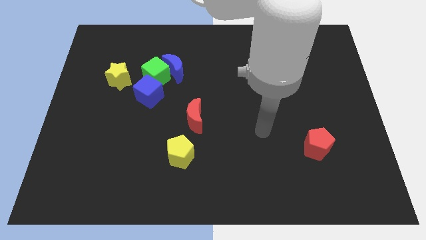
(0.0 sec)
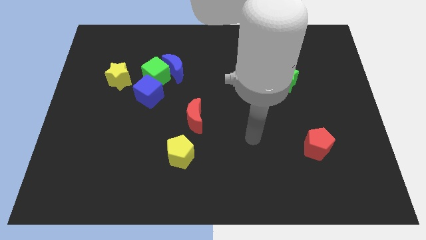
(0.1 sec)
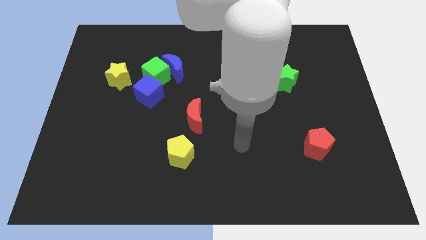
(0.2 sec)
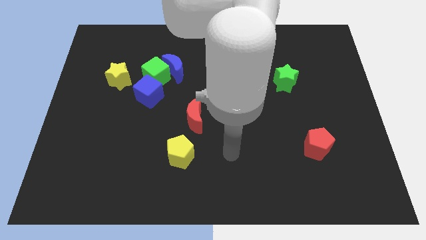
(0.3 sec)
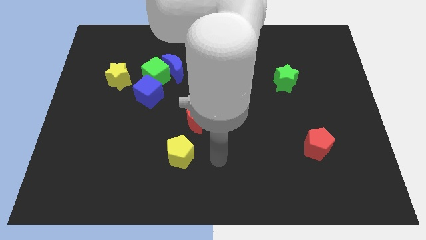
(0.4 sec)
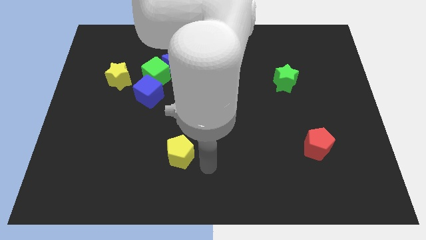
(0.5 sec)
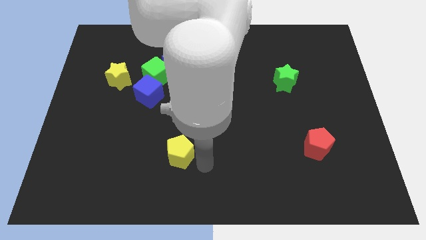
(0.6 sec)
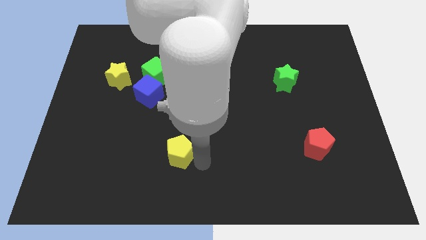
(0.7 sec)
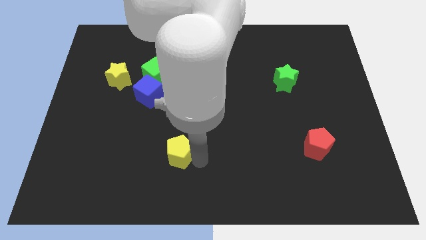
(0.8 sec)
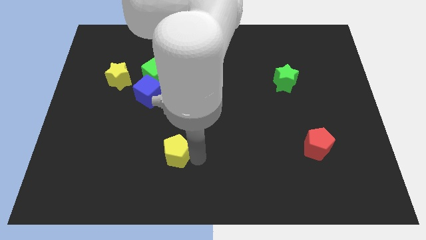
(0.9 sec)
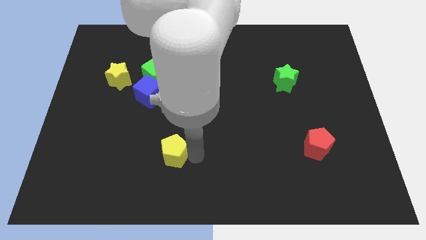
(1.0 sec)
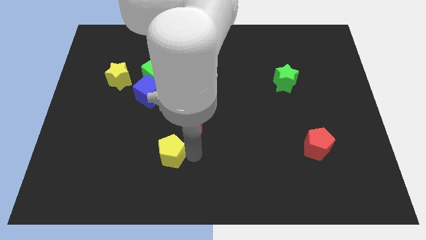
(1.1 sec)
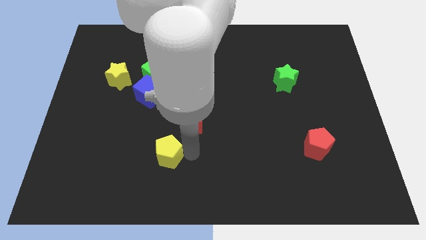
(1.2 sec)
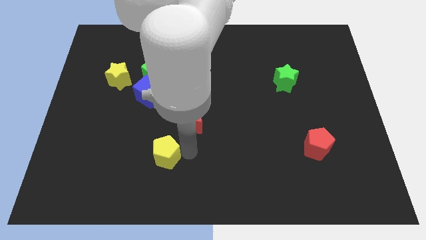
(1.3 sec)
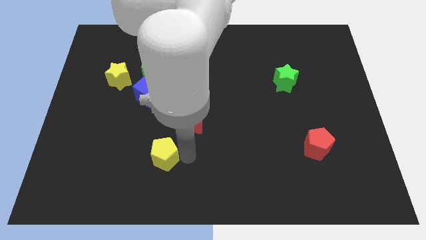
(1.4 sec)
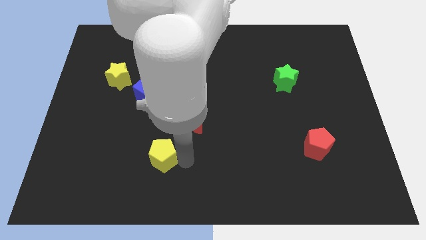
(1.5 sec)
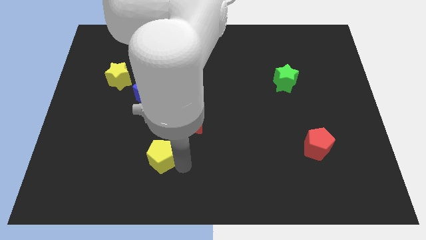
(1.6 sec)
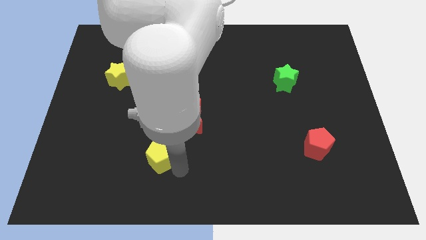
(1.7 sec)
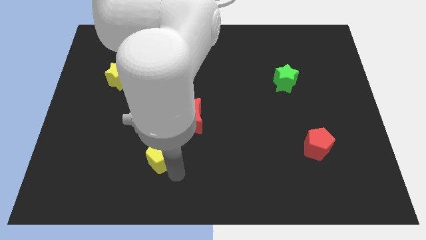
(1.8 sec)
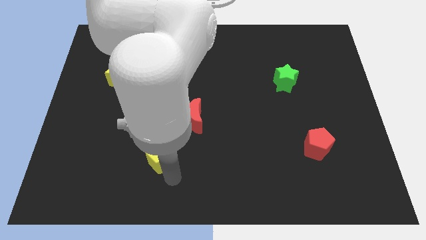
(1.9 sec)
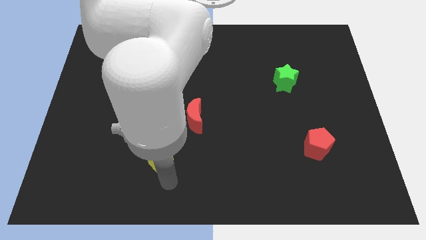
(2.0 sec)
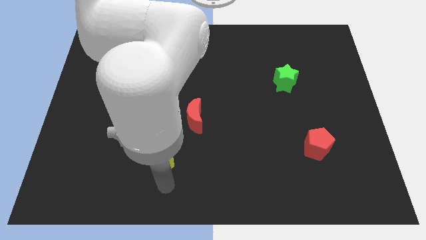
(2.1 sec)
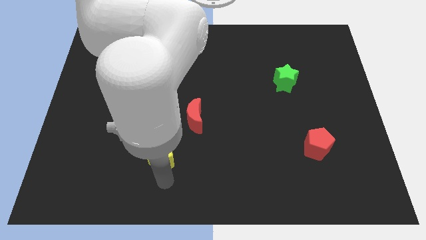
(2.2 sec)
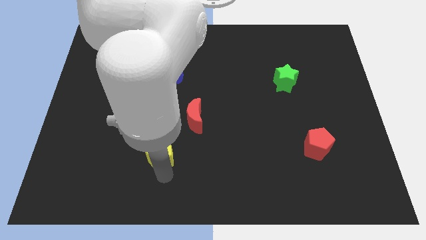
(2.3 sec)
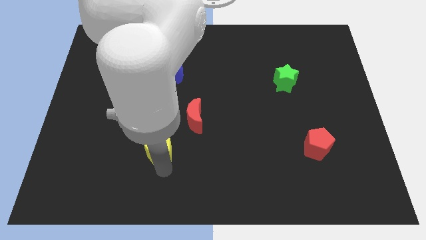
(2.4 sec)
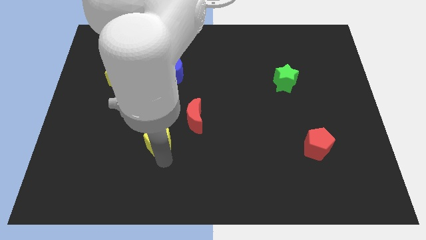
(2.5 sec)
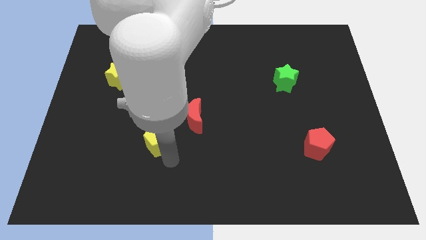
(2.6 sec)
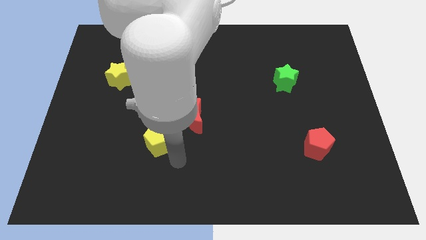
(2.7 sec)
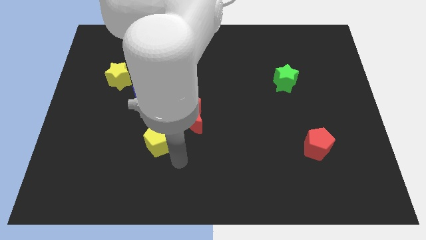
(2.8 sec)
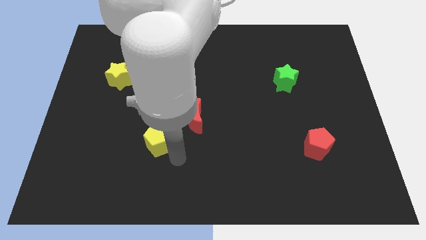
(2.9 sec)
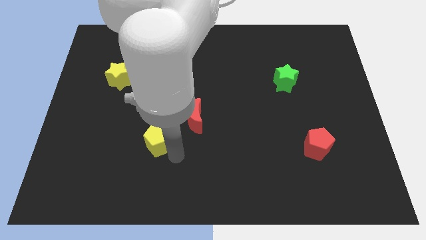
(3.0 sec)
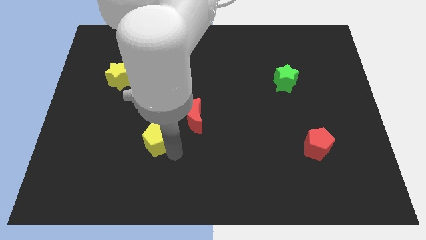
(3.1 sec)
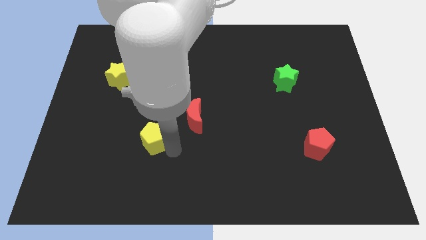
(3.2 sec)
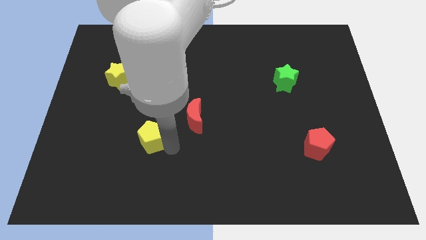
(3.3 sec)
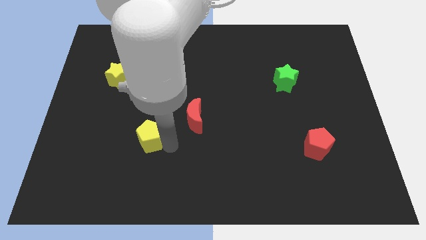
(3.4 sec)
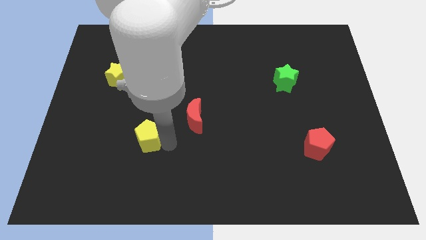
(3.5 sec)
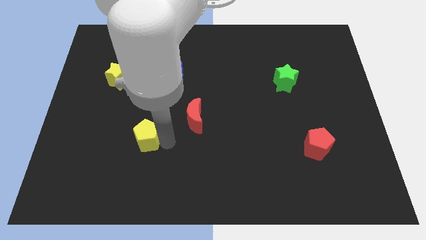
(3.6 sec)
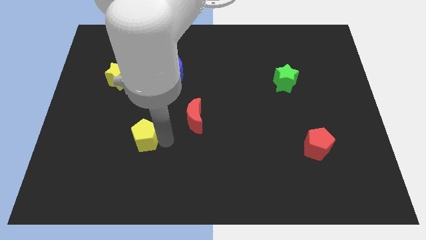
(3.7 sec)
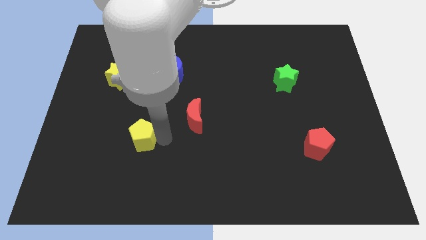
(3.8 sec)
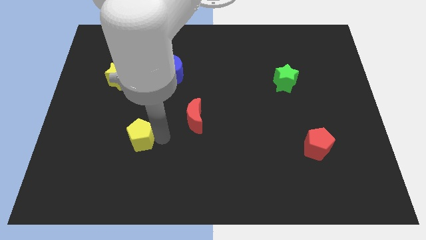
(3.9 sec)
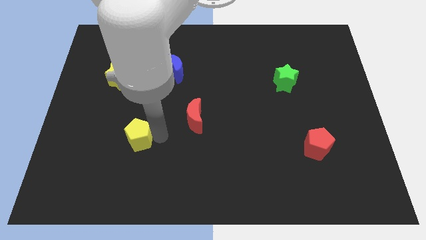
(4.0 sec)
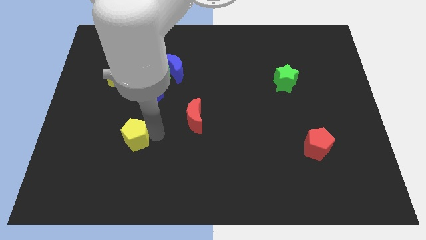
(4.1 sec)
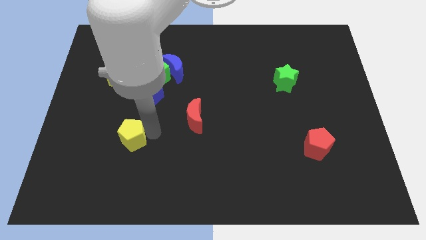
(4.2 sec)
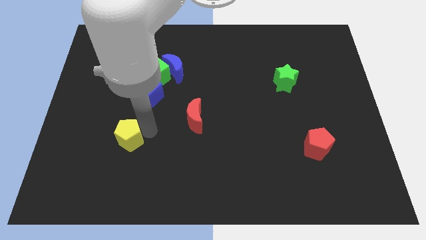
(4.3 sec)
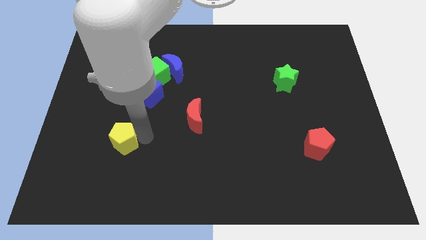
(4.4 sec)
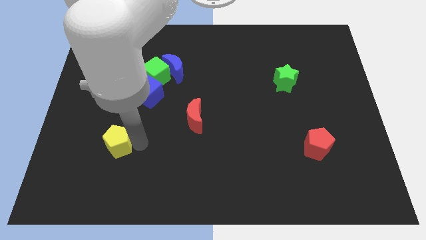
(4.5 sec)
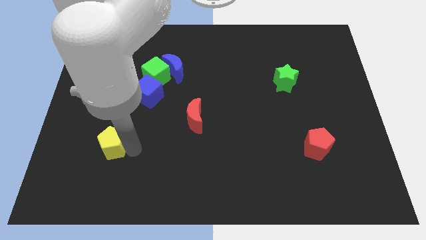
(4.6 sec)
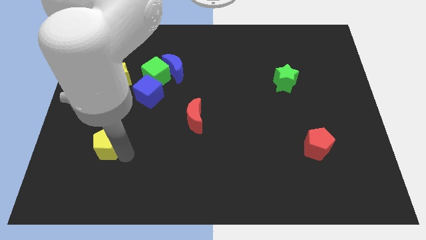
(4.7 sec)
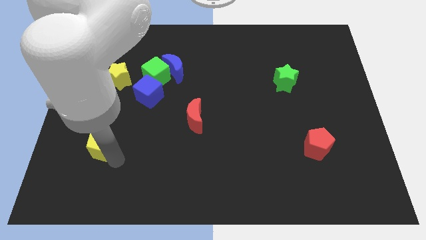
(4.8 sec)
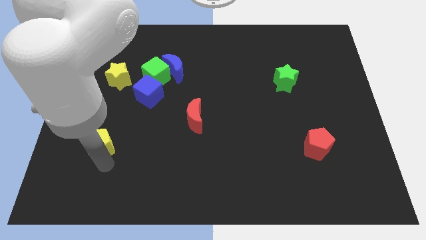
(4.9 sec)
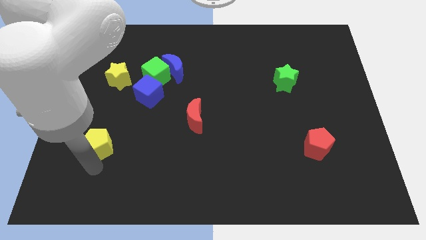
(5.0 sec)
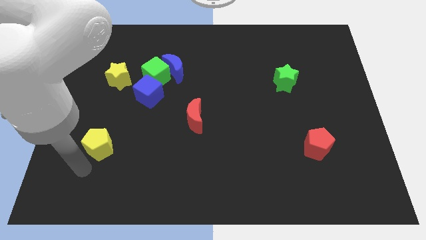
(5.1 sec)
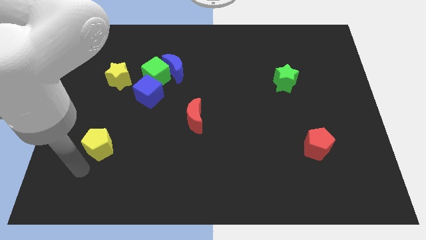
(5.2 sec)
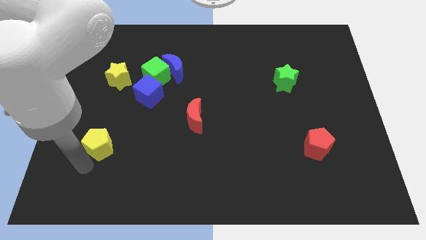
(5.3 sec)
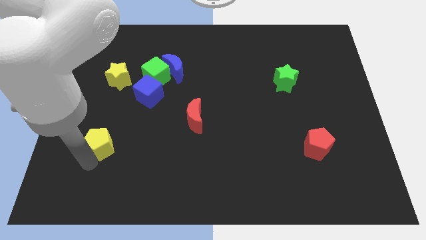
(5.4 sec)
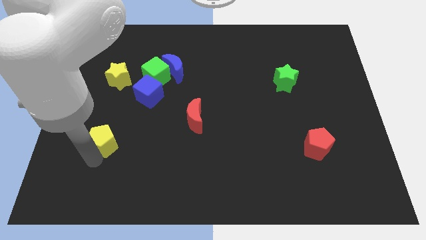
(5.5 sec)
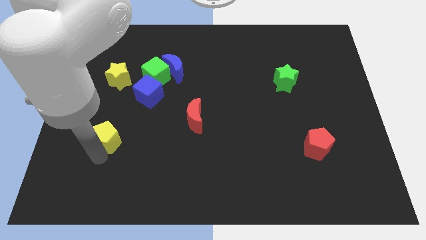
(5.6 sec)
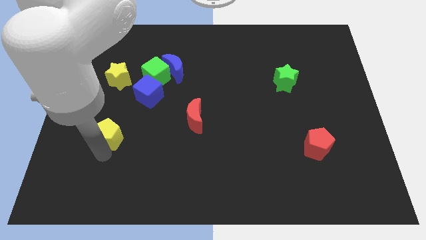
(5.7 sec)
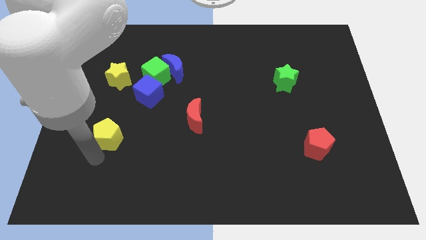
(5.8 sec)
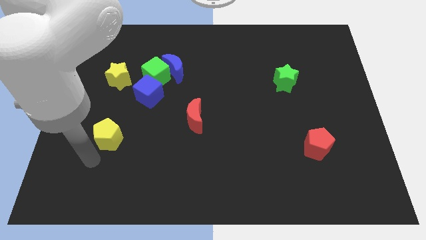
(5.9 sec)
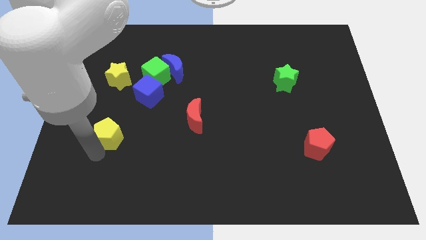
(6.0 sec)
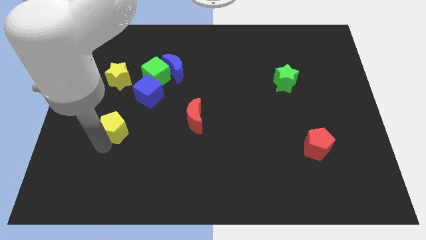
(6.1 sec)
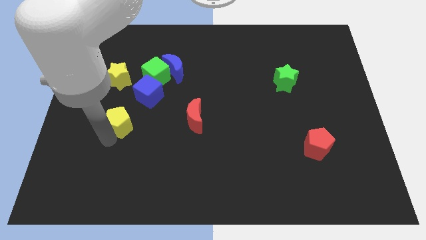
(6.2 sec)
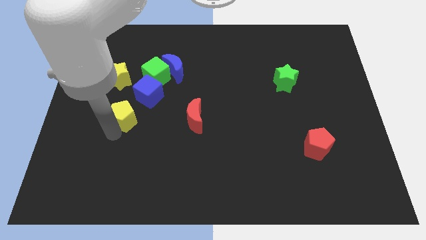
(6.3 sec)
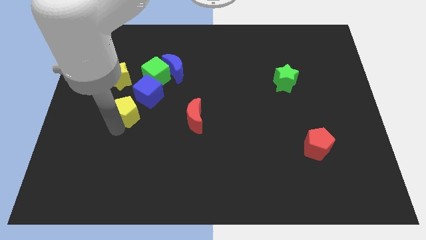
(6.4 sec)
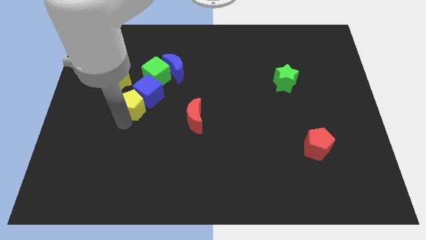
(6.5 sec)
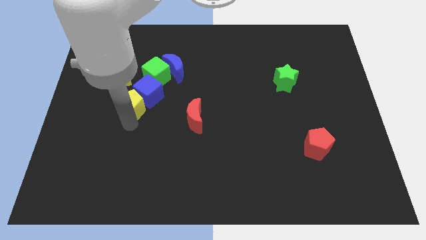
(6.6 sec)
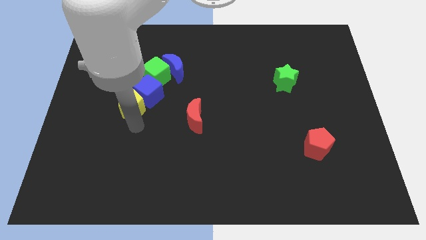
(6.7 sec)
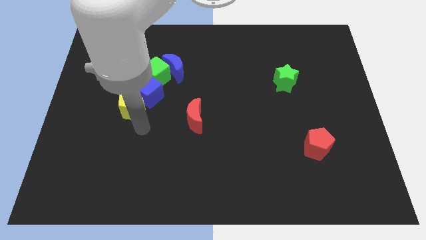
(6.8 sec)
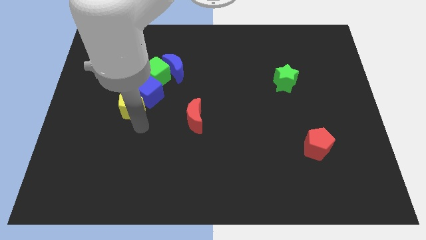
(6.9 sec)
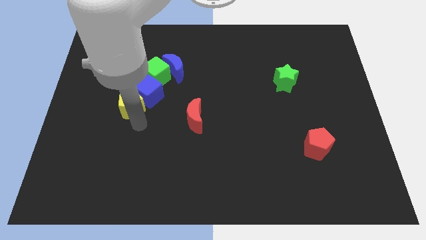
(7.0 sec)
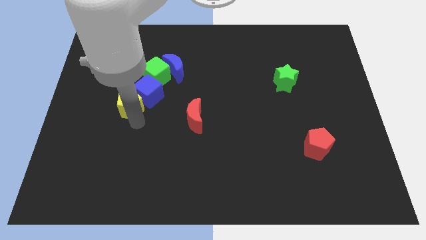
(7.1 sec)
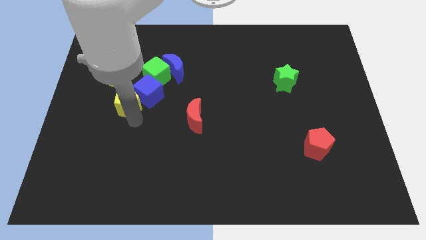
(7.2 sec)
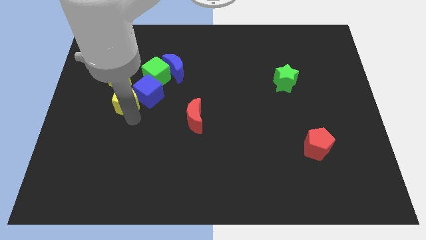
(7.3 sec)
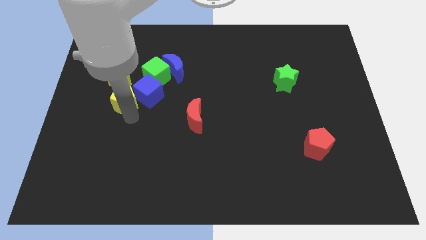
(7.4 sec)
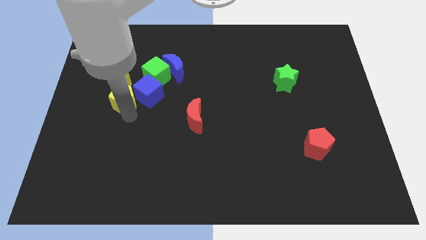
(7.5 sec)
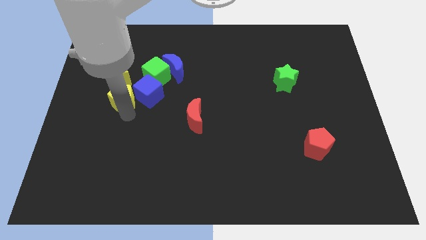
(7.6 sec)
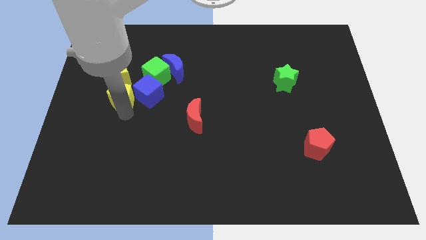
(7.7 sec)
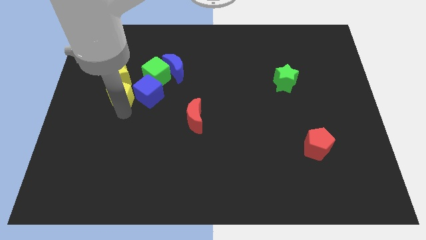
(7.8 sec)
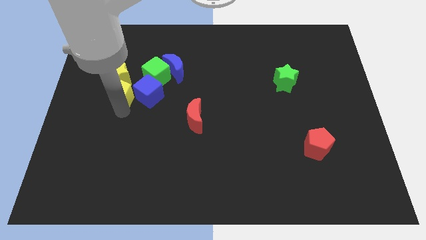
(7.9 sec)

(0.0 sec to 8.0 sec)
move the yellow pentagon next to the yellow star
